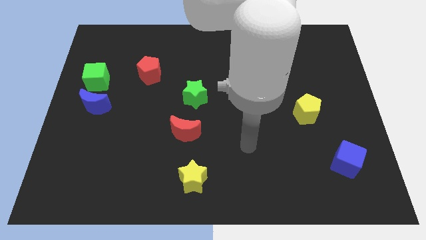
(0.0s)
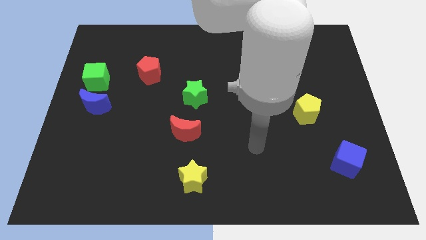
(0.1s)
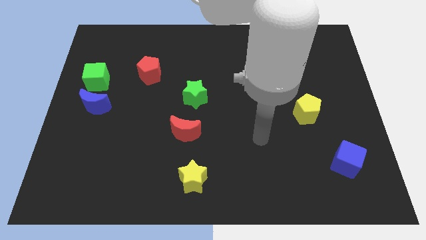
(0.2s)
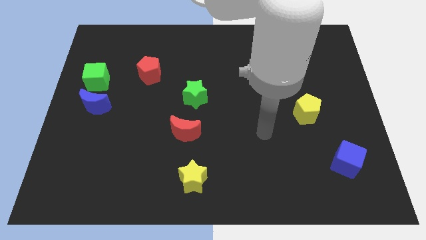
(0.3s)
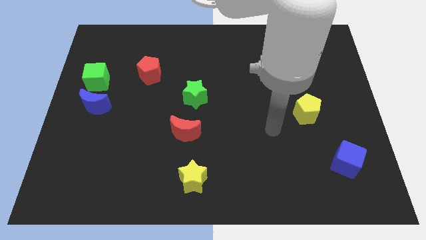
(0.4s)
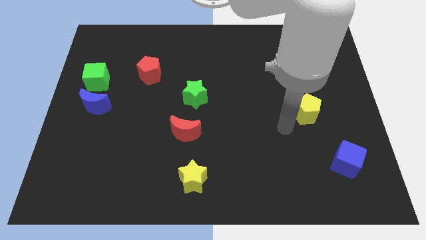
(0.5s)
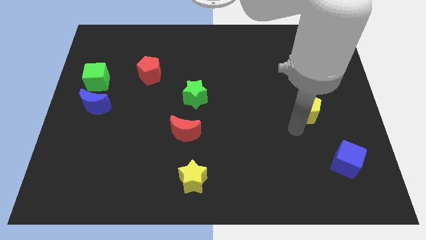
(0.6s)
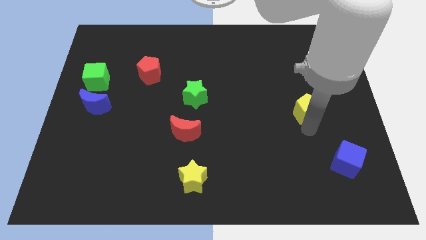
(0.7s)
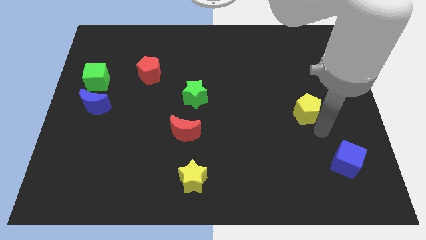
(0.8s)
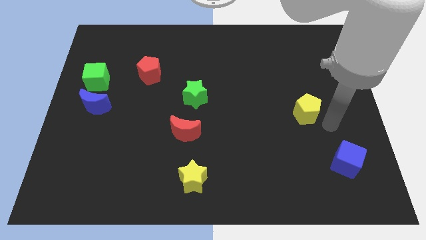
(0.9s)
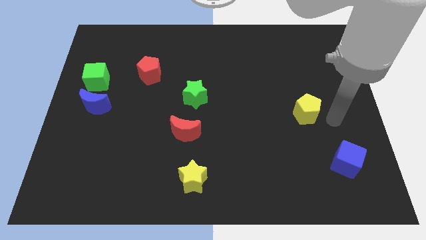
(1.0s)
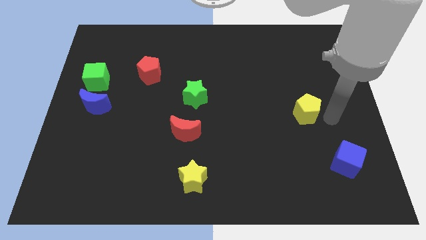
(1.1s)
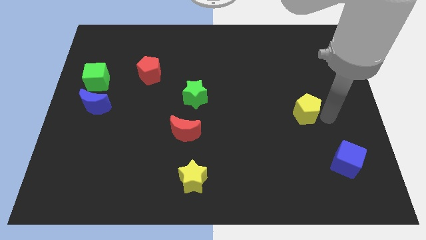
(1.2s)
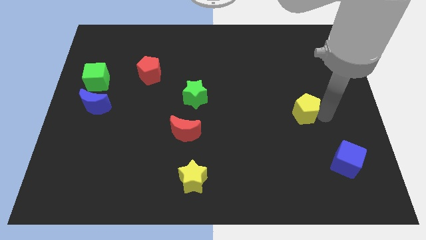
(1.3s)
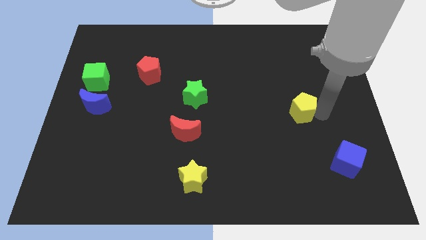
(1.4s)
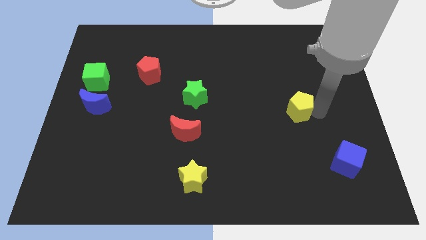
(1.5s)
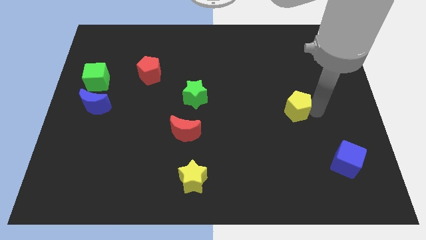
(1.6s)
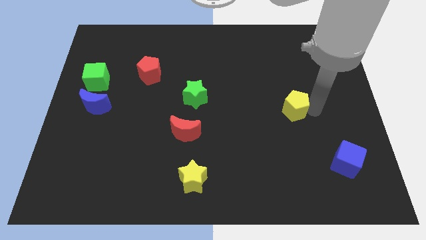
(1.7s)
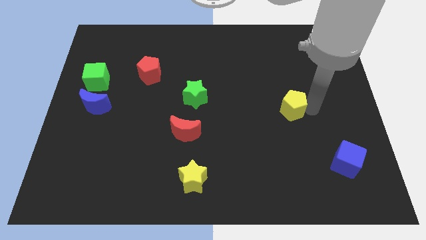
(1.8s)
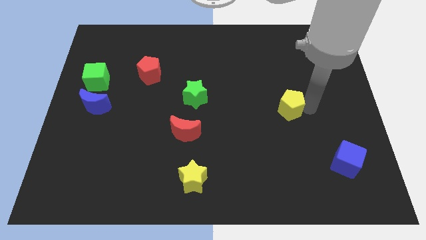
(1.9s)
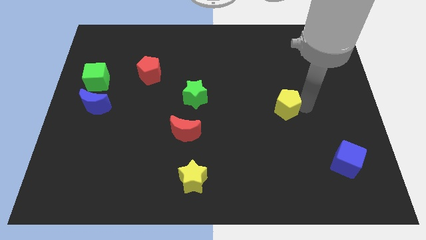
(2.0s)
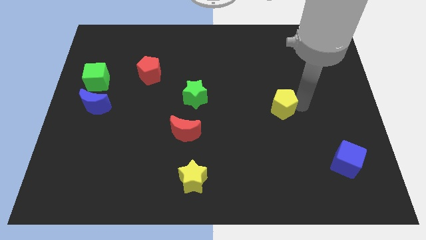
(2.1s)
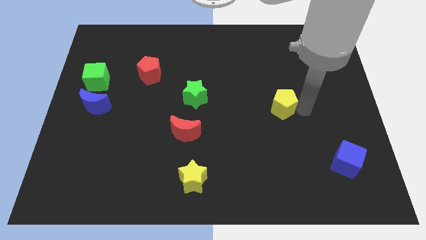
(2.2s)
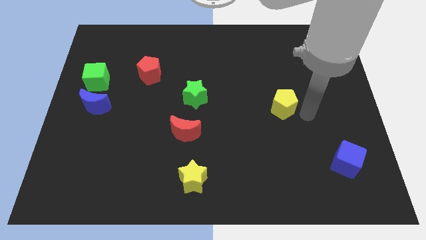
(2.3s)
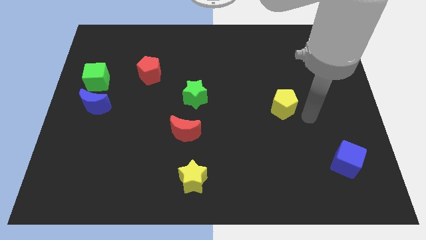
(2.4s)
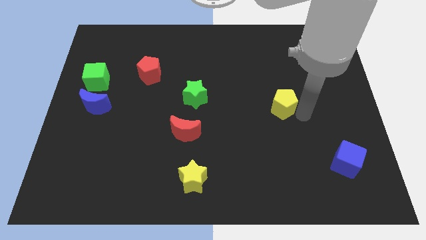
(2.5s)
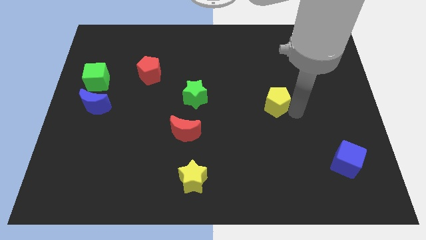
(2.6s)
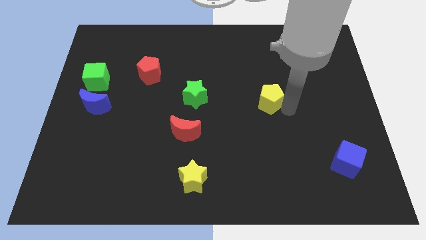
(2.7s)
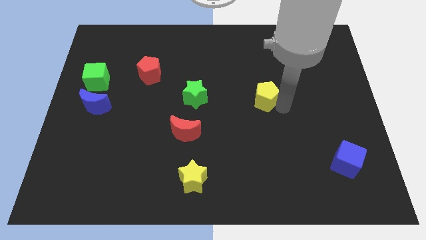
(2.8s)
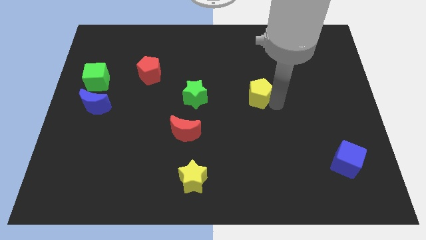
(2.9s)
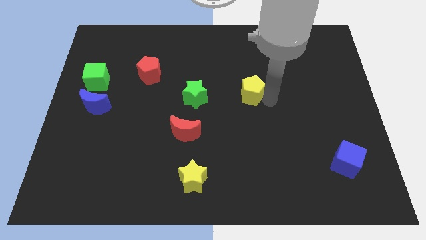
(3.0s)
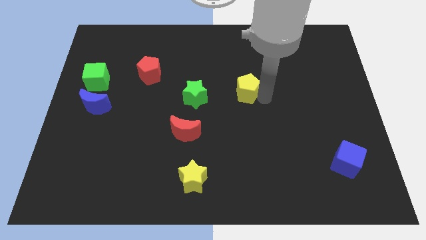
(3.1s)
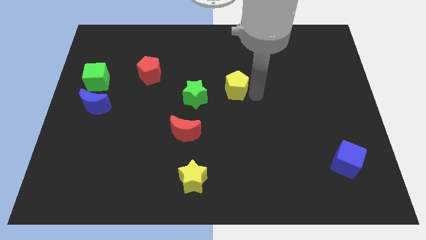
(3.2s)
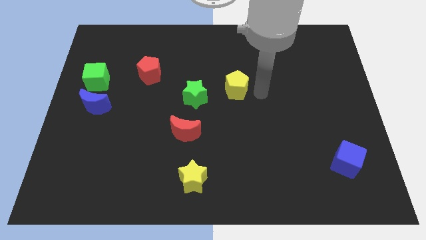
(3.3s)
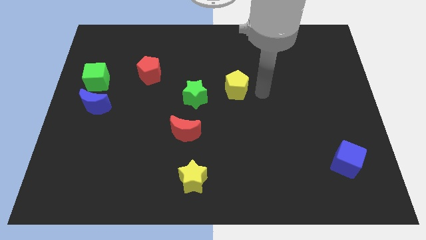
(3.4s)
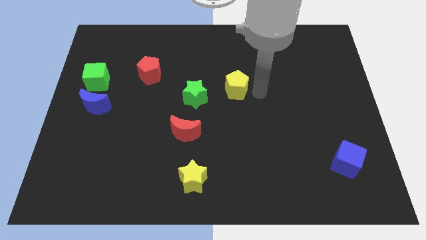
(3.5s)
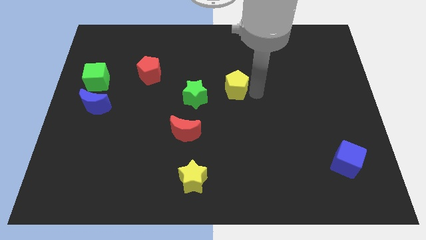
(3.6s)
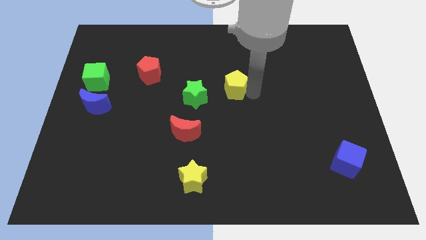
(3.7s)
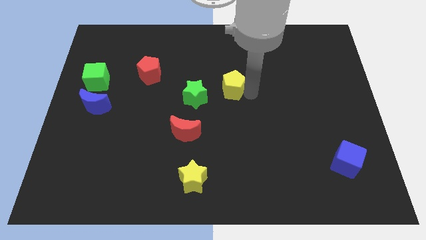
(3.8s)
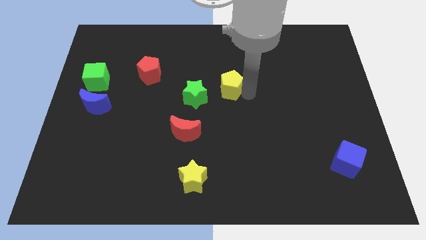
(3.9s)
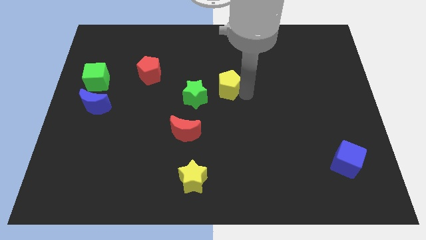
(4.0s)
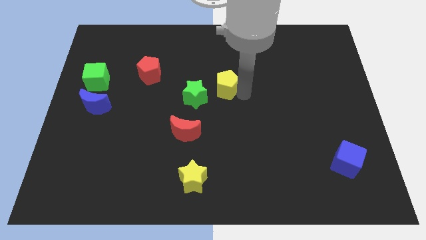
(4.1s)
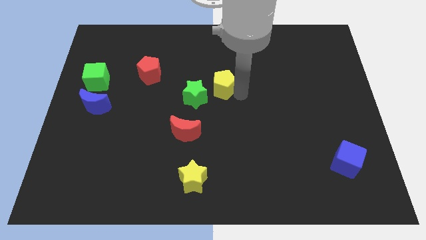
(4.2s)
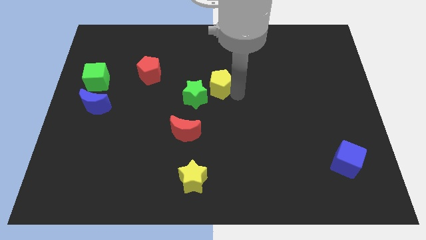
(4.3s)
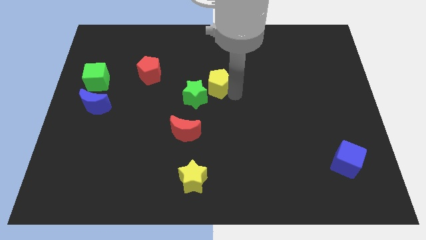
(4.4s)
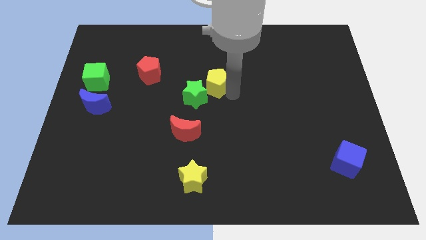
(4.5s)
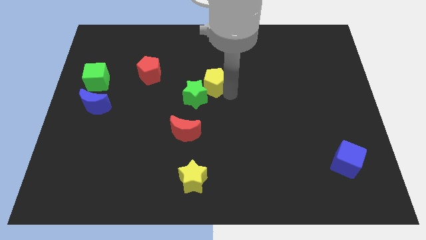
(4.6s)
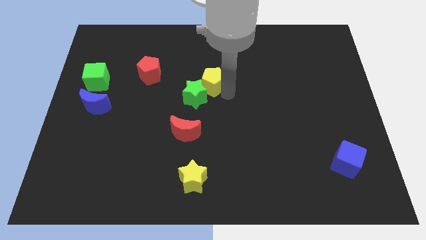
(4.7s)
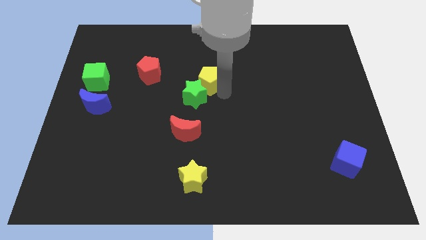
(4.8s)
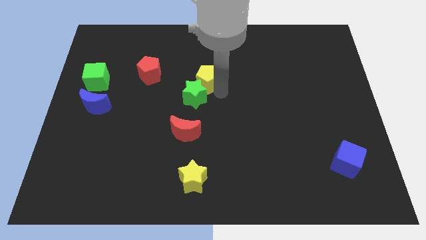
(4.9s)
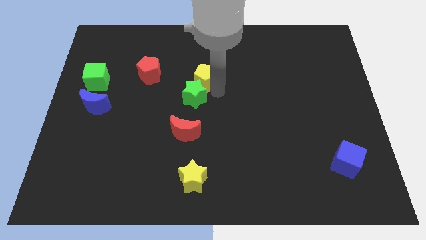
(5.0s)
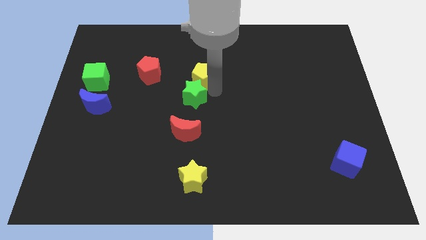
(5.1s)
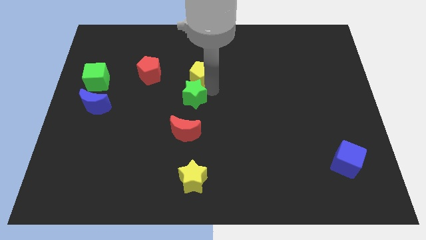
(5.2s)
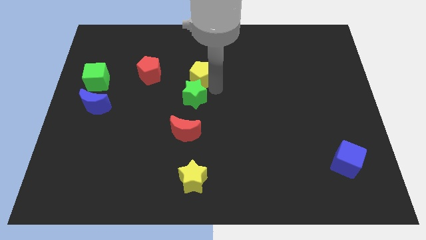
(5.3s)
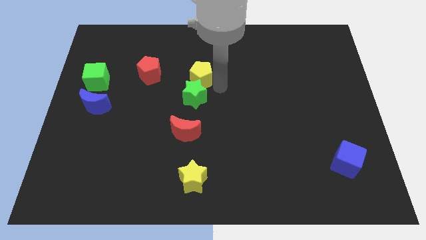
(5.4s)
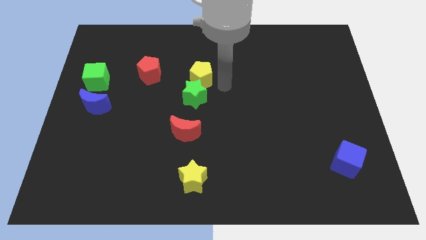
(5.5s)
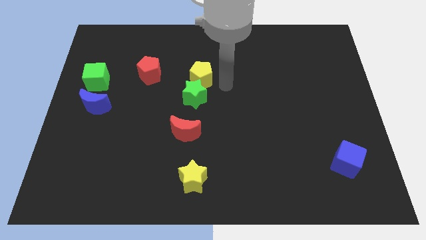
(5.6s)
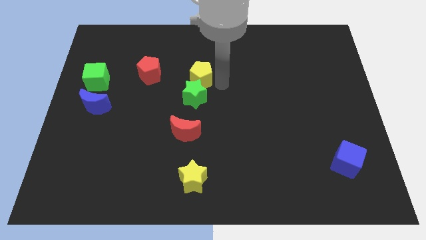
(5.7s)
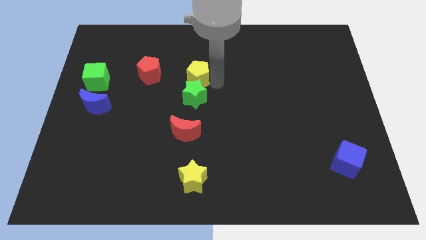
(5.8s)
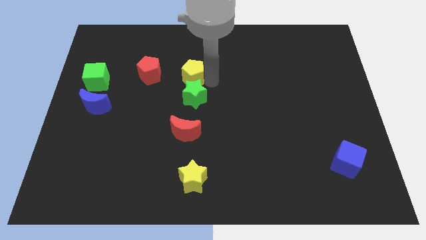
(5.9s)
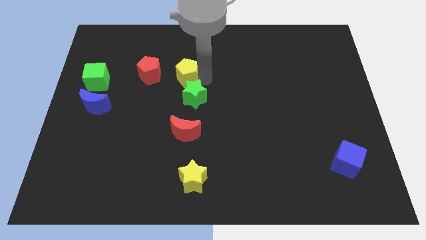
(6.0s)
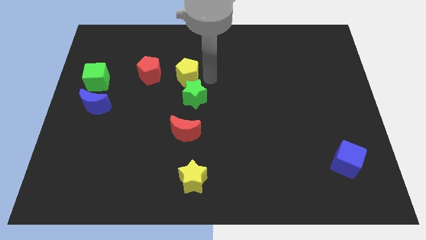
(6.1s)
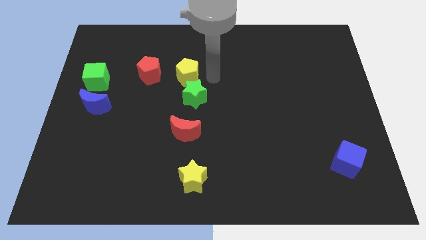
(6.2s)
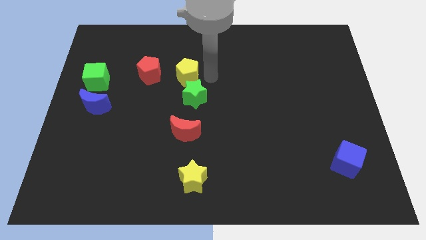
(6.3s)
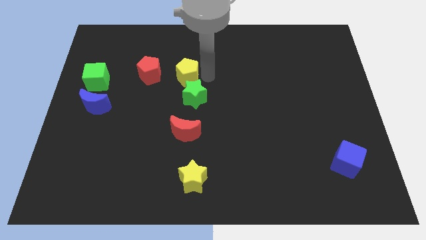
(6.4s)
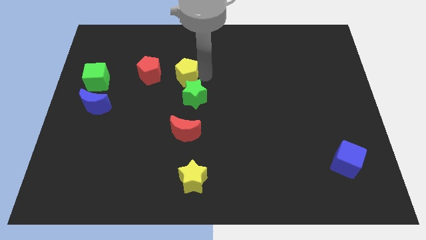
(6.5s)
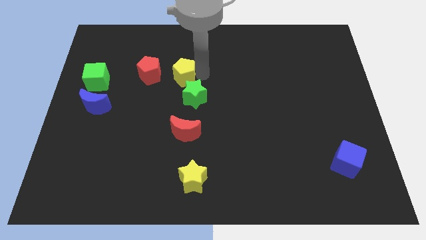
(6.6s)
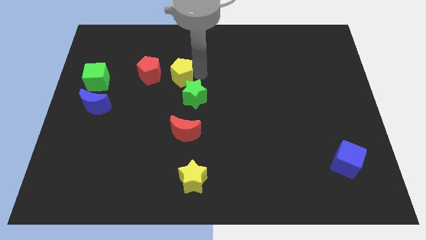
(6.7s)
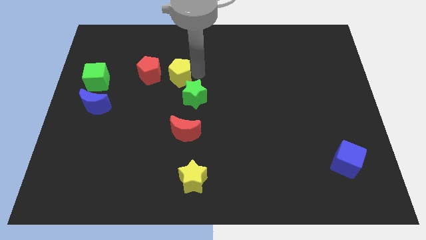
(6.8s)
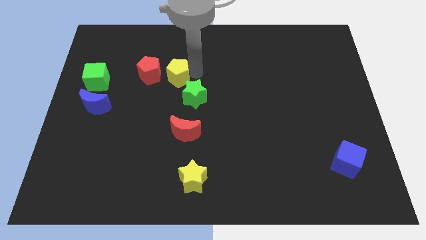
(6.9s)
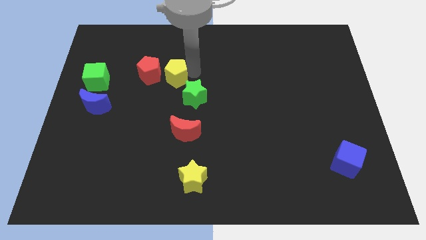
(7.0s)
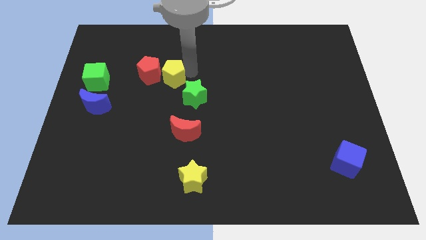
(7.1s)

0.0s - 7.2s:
push the yellow pentagon to the red pentagon

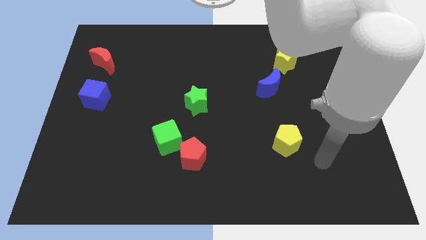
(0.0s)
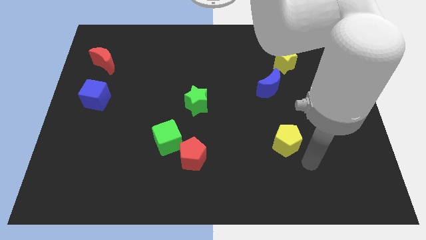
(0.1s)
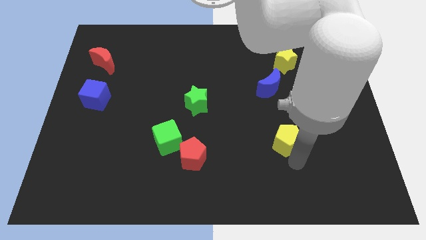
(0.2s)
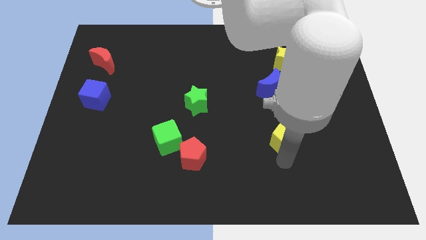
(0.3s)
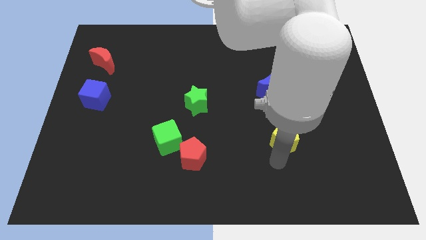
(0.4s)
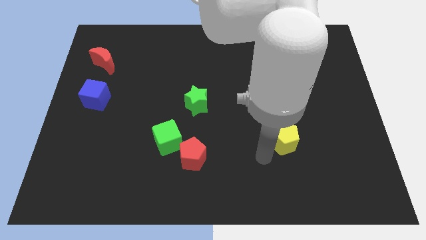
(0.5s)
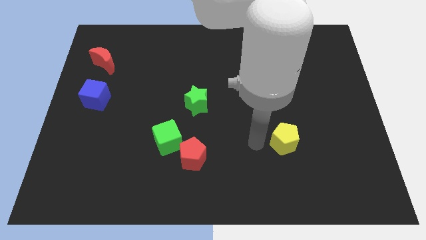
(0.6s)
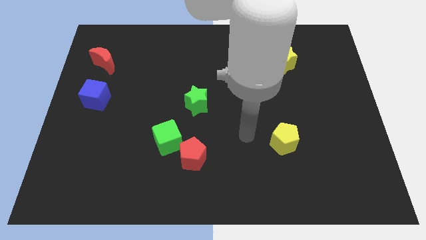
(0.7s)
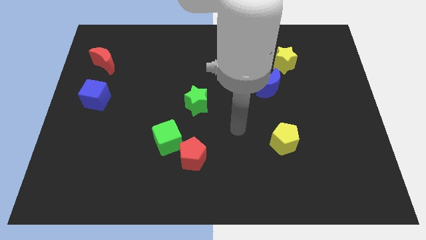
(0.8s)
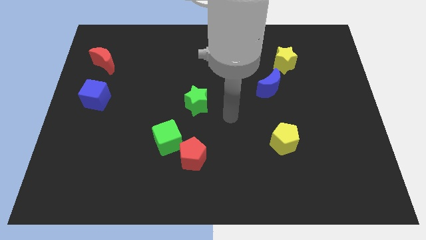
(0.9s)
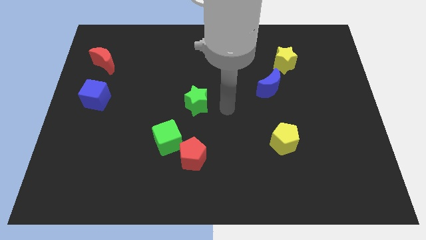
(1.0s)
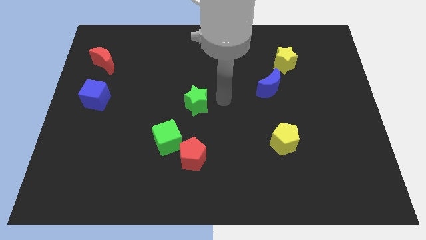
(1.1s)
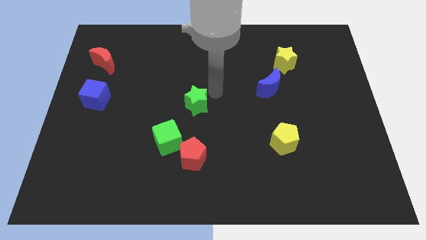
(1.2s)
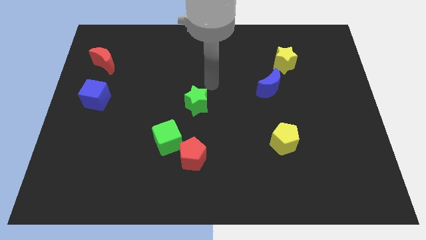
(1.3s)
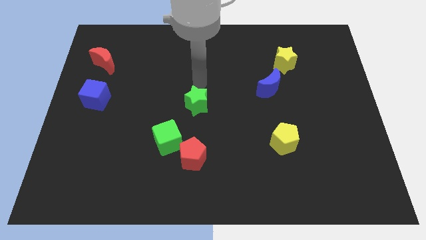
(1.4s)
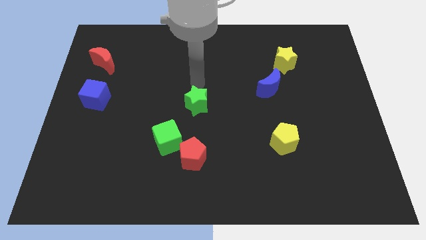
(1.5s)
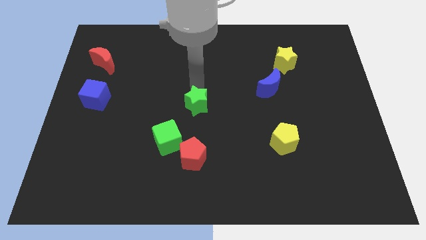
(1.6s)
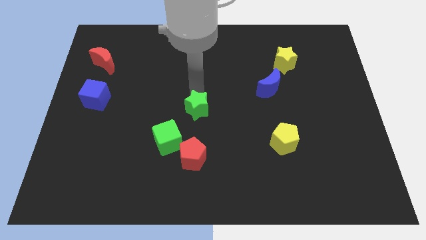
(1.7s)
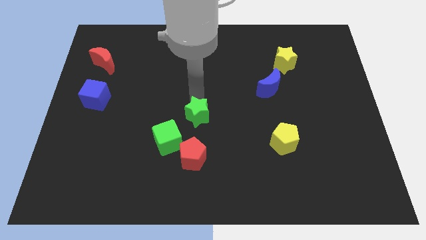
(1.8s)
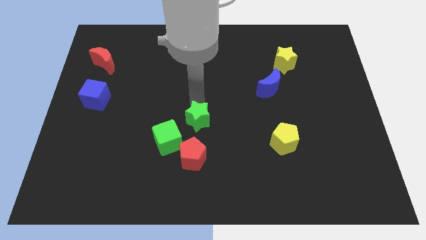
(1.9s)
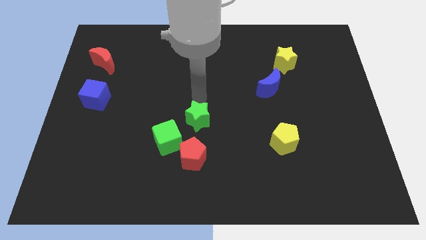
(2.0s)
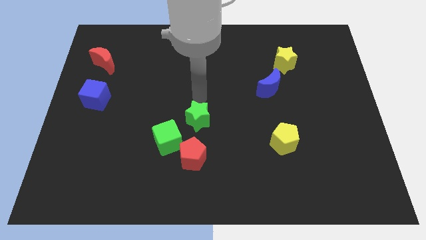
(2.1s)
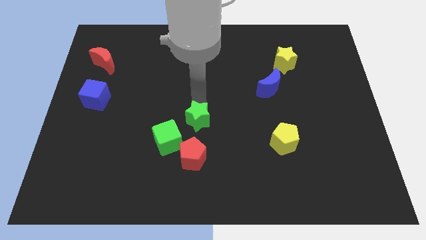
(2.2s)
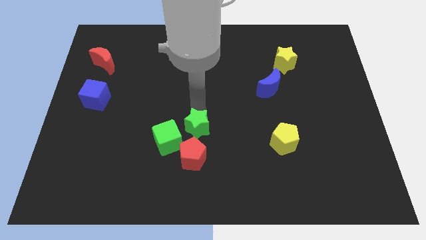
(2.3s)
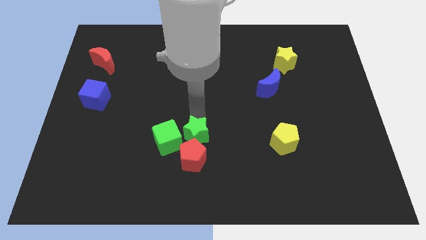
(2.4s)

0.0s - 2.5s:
move the green star to the red pentagon
